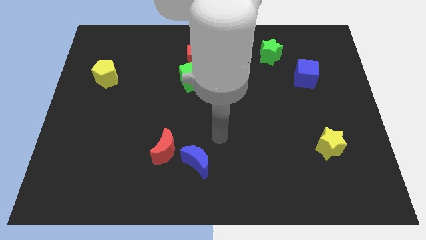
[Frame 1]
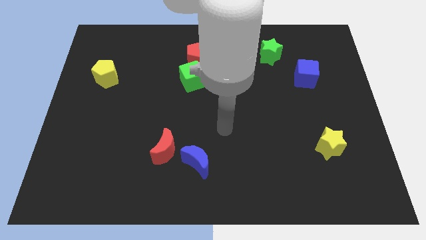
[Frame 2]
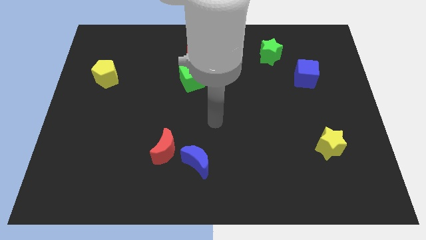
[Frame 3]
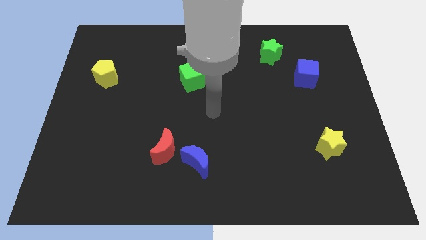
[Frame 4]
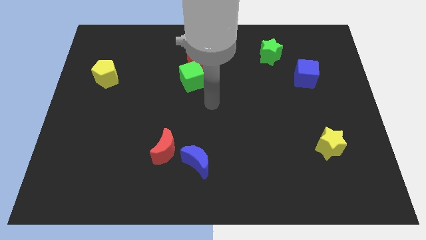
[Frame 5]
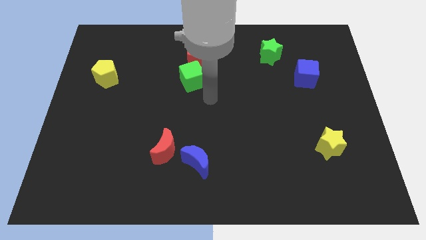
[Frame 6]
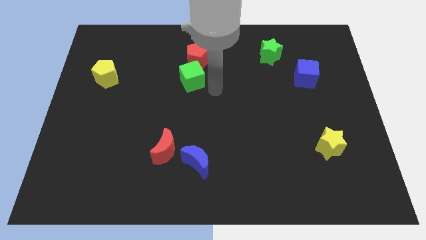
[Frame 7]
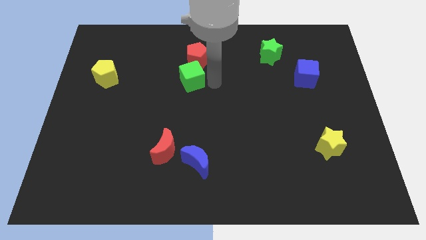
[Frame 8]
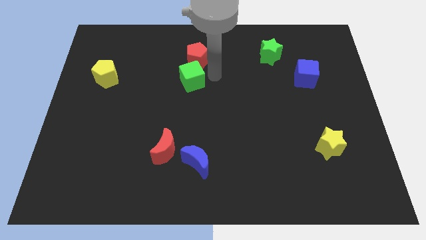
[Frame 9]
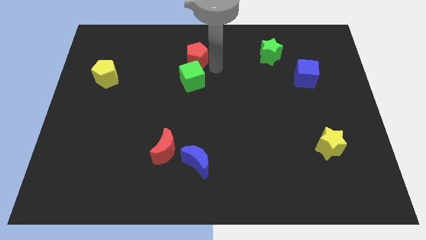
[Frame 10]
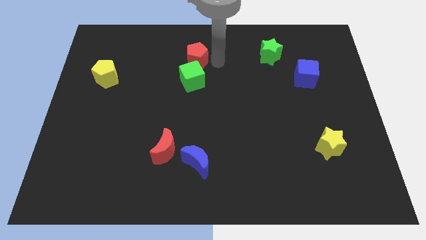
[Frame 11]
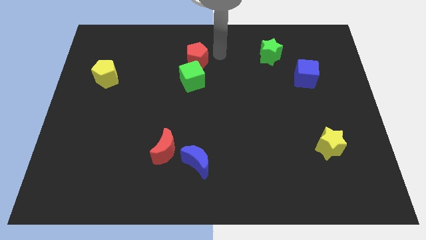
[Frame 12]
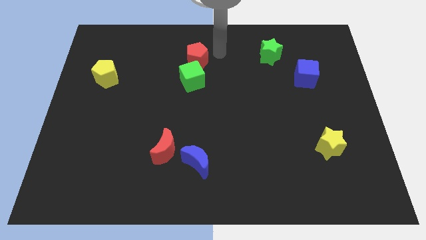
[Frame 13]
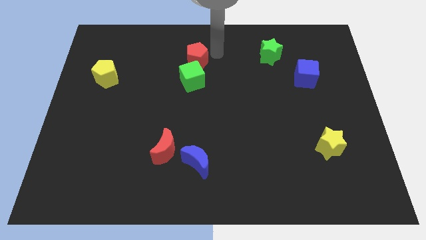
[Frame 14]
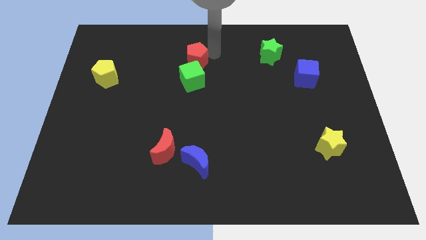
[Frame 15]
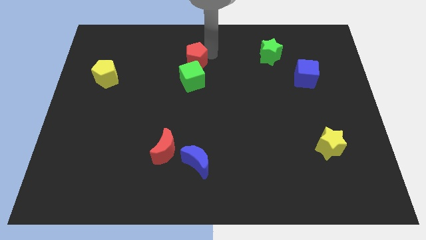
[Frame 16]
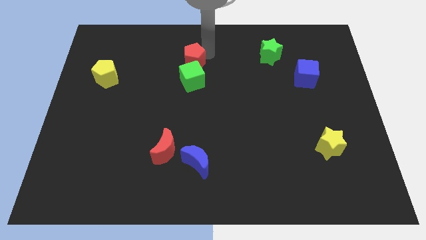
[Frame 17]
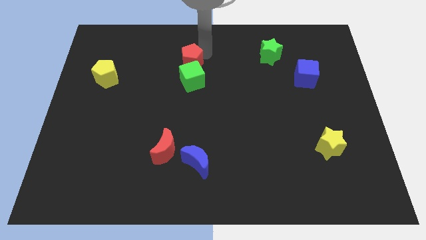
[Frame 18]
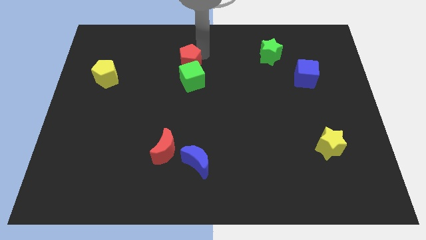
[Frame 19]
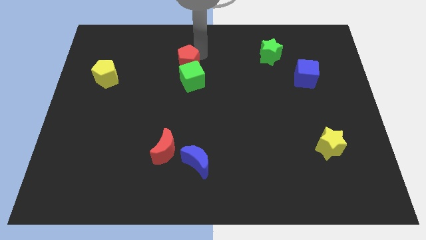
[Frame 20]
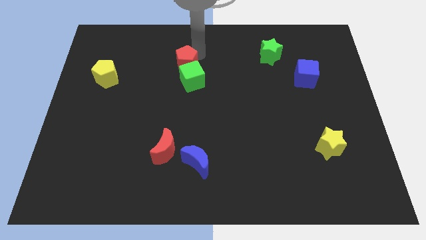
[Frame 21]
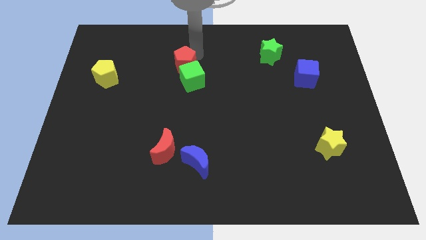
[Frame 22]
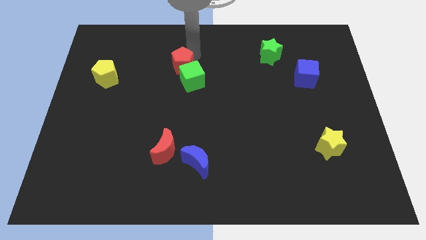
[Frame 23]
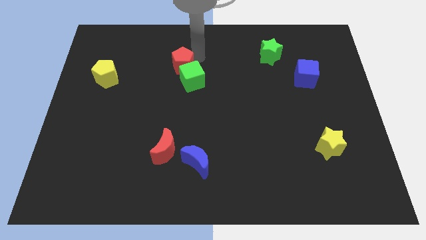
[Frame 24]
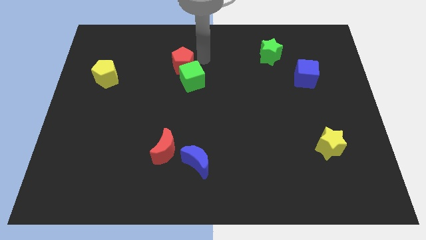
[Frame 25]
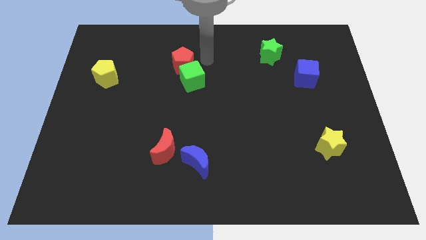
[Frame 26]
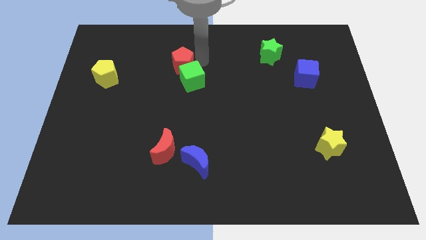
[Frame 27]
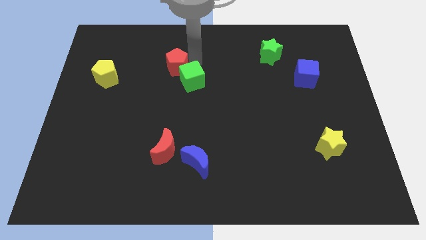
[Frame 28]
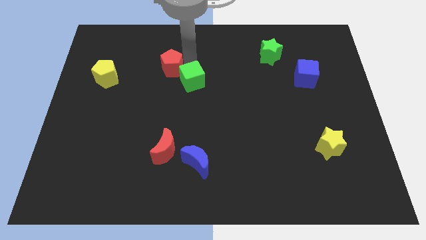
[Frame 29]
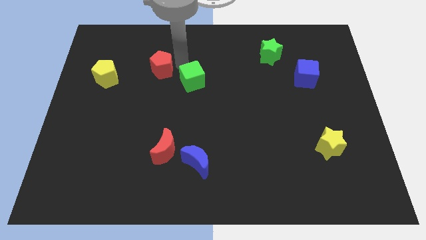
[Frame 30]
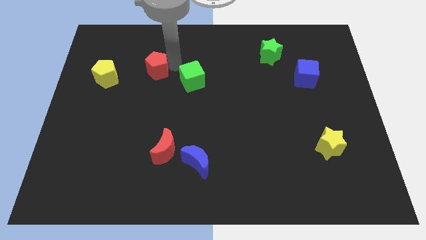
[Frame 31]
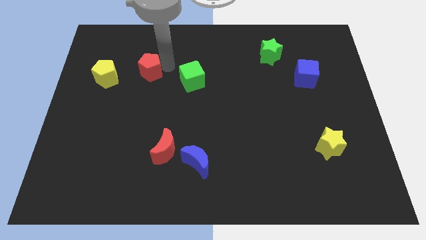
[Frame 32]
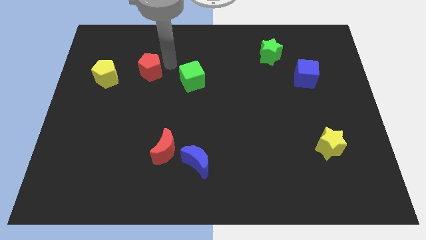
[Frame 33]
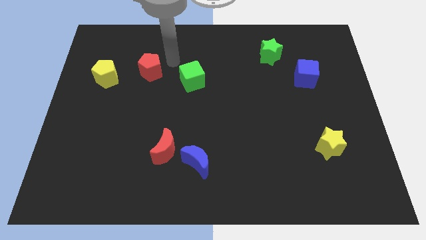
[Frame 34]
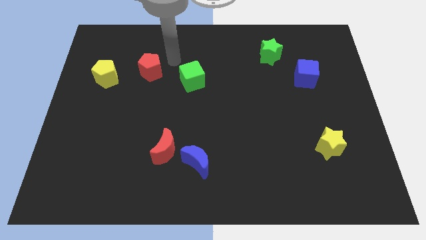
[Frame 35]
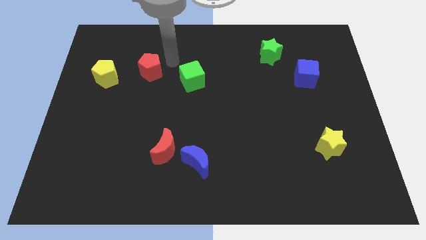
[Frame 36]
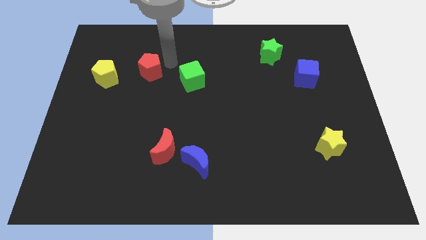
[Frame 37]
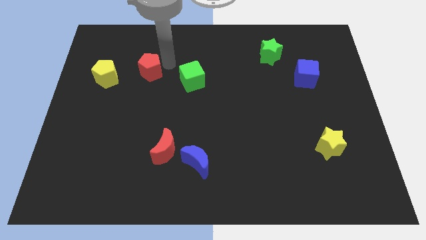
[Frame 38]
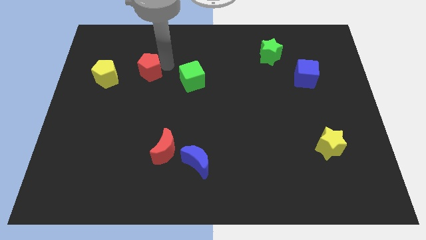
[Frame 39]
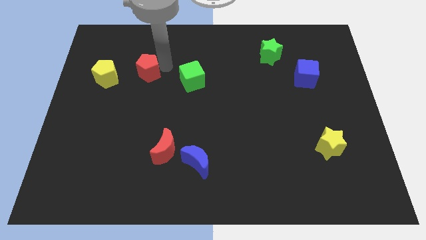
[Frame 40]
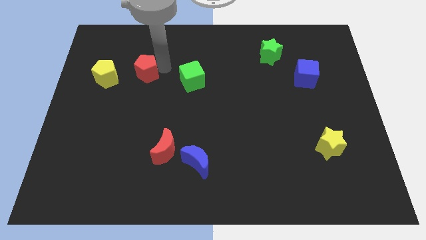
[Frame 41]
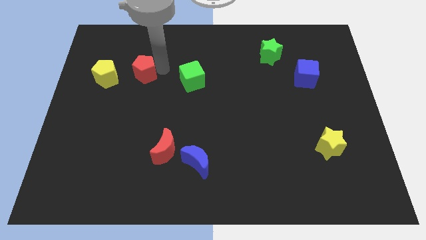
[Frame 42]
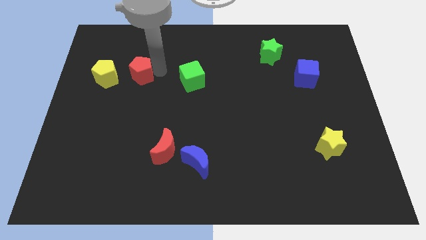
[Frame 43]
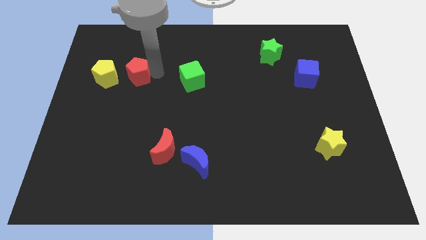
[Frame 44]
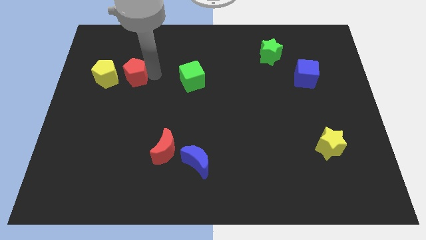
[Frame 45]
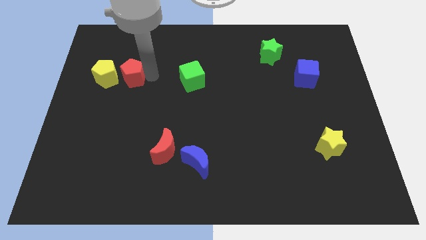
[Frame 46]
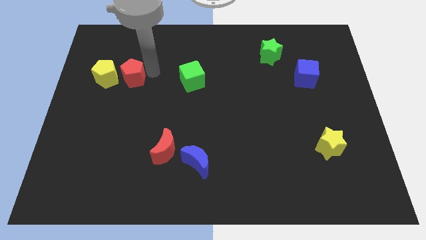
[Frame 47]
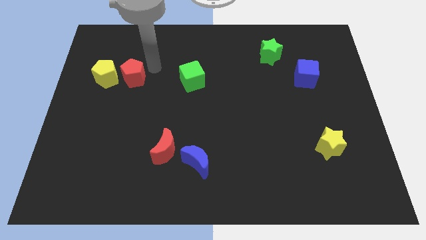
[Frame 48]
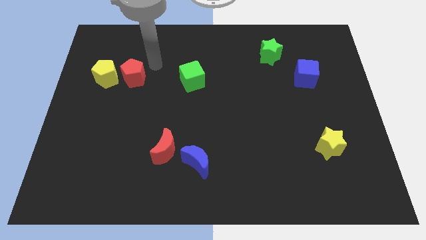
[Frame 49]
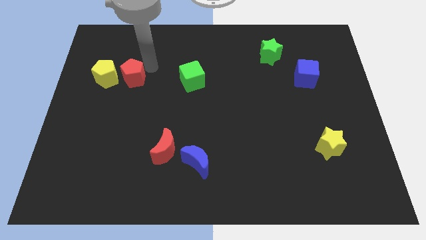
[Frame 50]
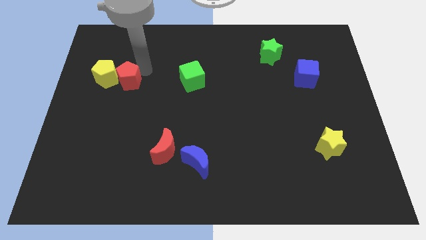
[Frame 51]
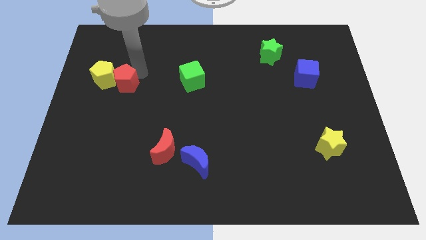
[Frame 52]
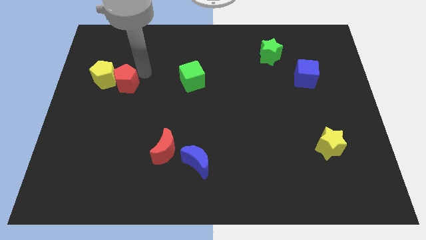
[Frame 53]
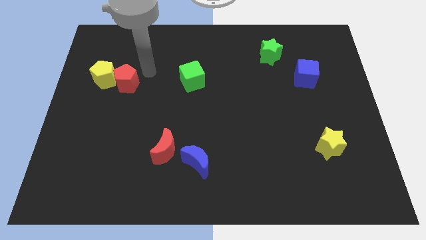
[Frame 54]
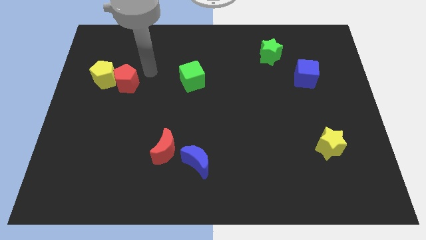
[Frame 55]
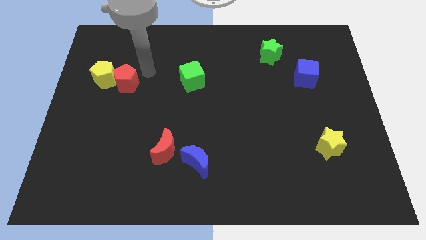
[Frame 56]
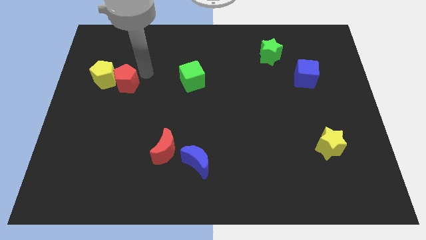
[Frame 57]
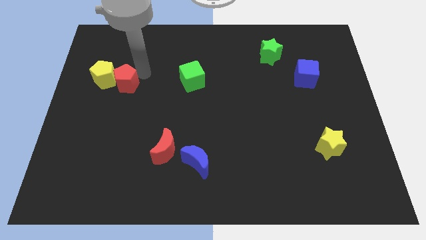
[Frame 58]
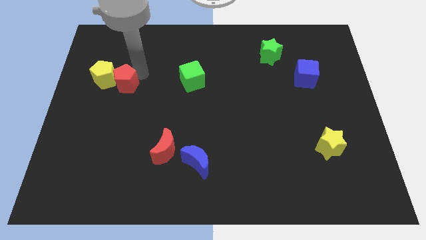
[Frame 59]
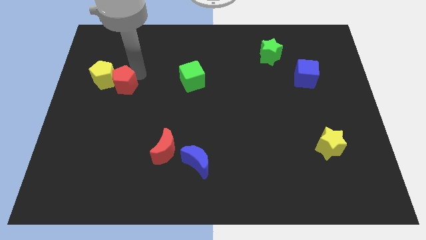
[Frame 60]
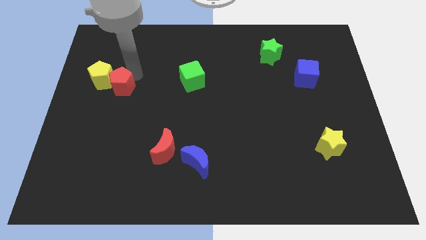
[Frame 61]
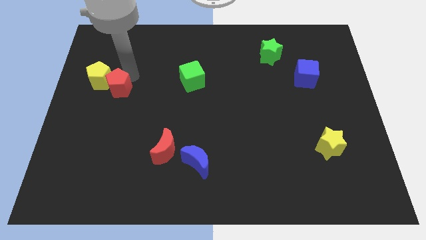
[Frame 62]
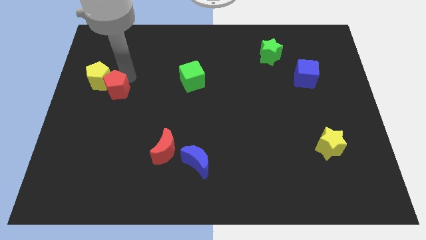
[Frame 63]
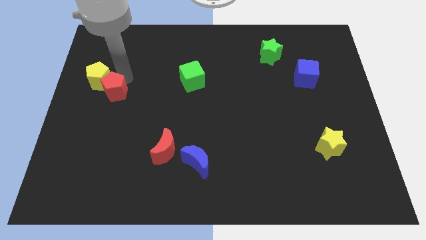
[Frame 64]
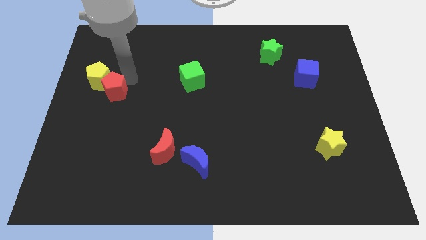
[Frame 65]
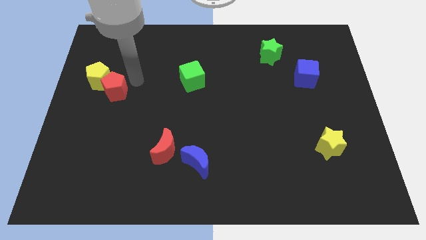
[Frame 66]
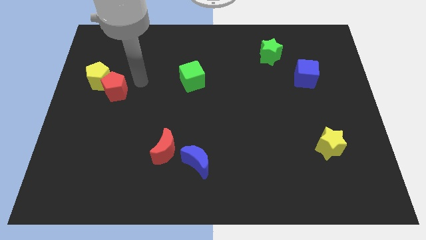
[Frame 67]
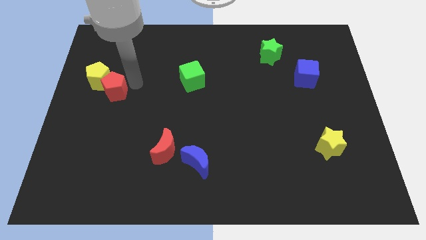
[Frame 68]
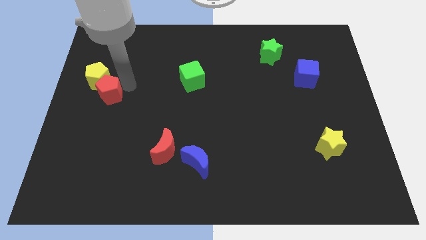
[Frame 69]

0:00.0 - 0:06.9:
push the red pentagon to the left side
